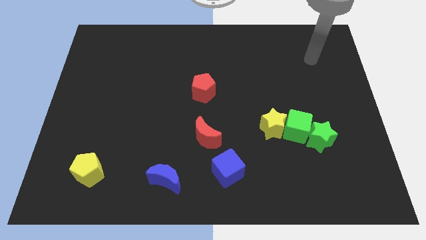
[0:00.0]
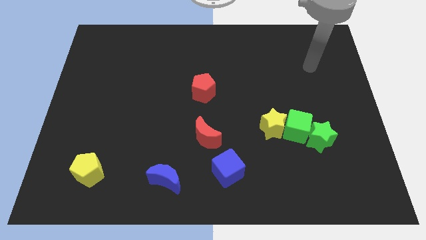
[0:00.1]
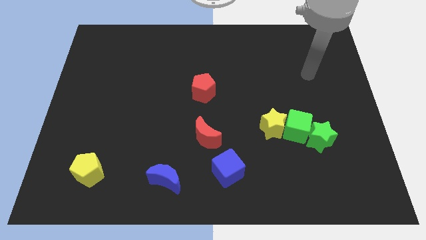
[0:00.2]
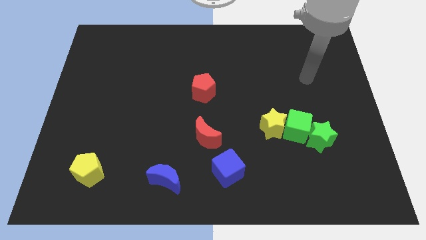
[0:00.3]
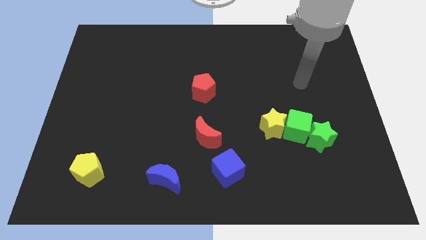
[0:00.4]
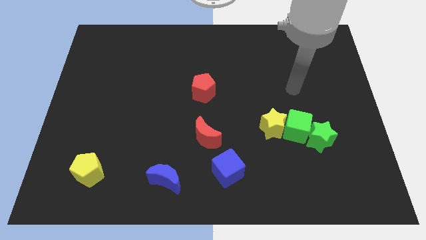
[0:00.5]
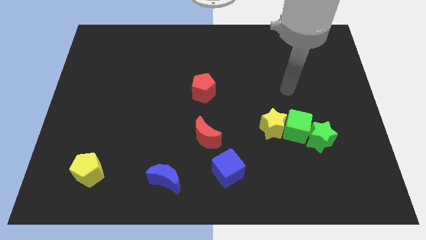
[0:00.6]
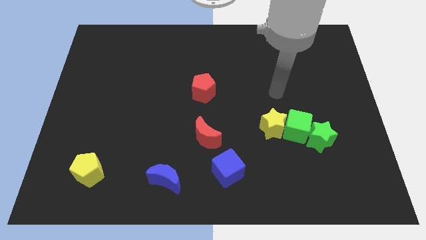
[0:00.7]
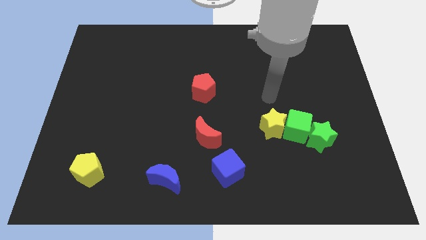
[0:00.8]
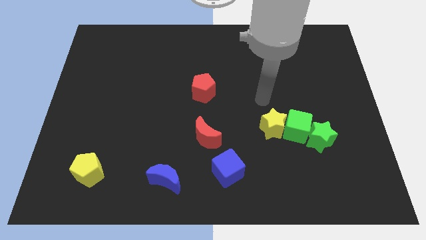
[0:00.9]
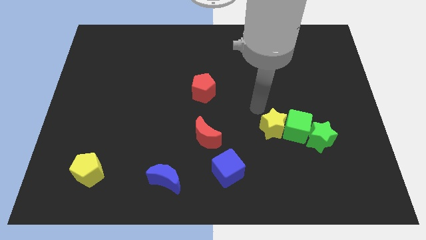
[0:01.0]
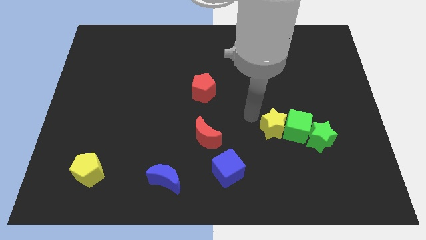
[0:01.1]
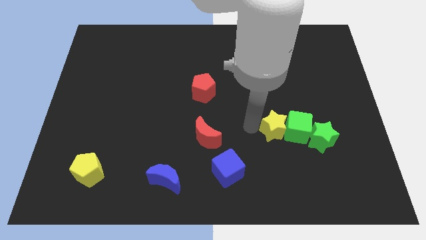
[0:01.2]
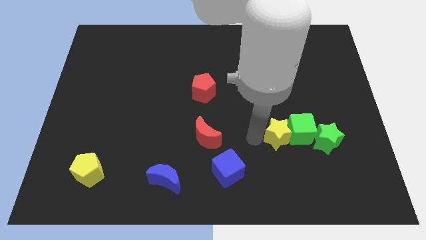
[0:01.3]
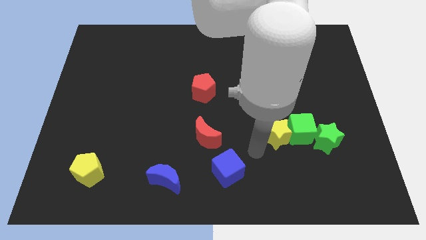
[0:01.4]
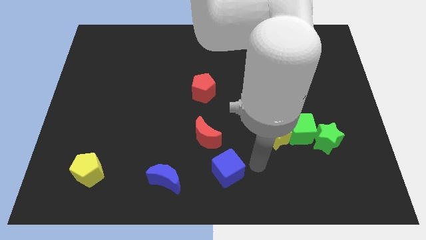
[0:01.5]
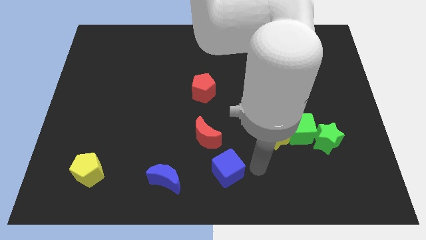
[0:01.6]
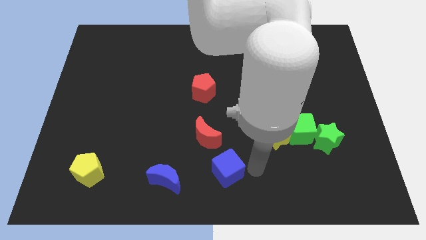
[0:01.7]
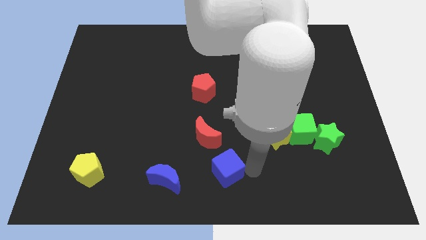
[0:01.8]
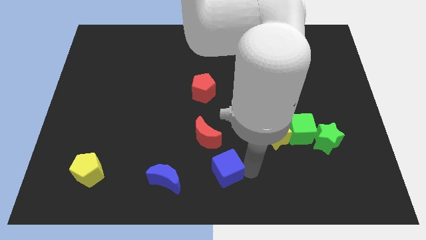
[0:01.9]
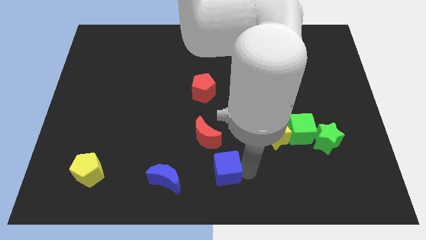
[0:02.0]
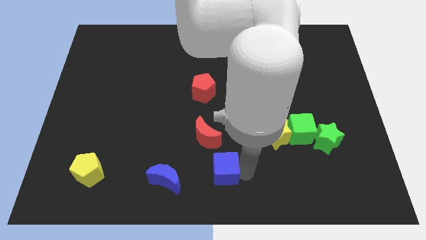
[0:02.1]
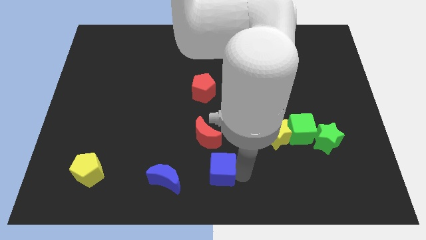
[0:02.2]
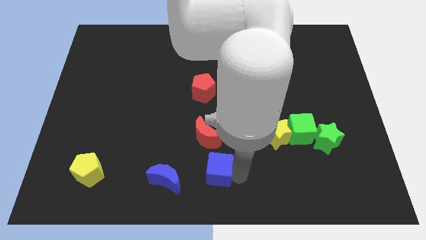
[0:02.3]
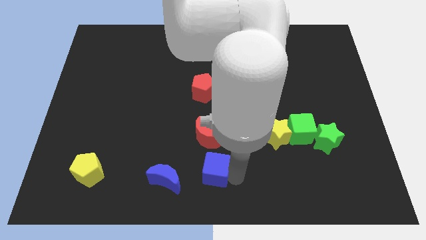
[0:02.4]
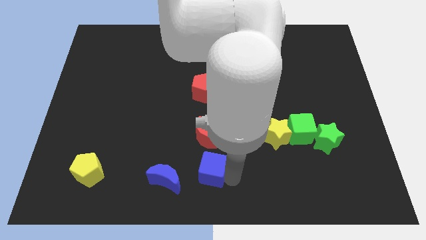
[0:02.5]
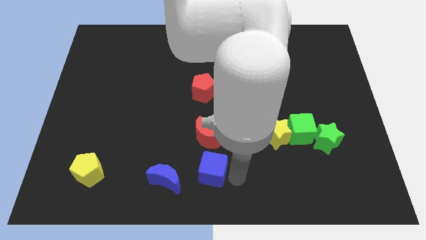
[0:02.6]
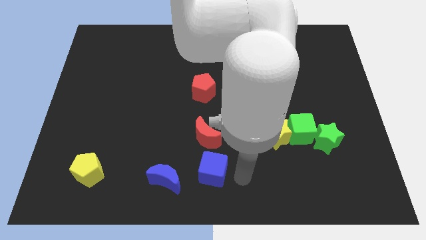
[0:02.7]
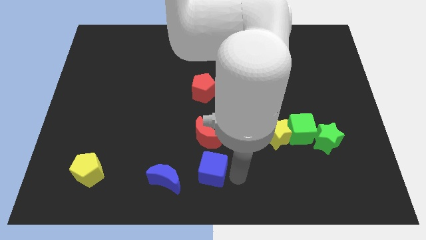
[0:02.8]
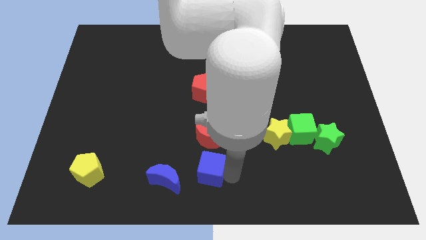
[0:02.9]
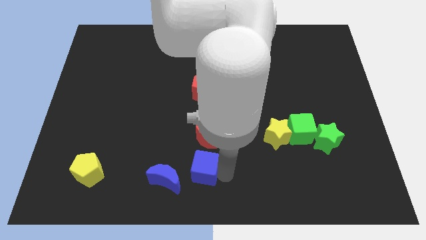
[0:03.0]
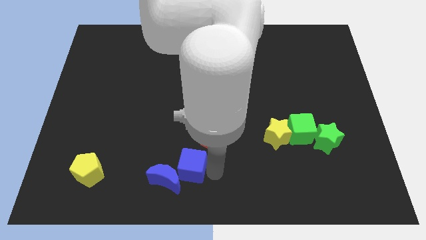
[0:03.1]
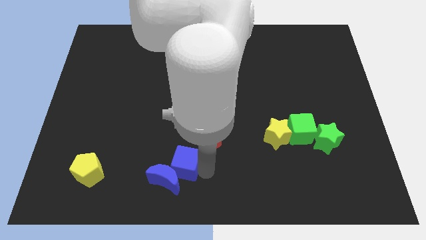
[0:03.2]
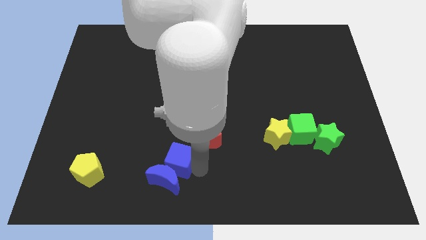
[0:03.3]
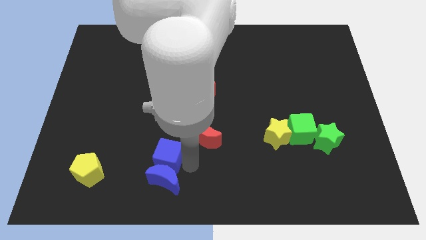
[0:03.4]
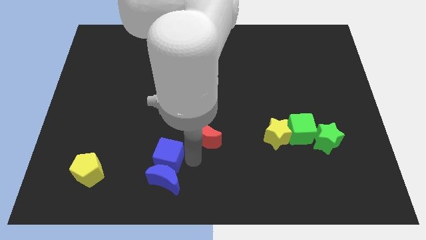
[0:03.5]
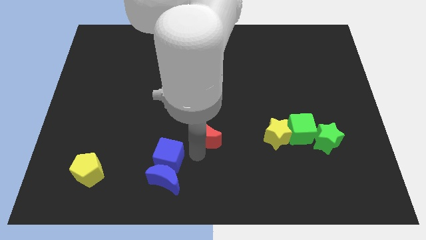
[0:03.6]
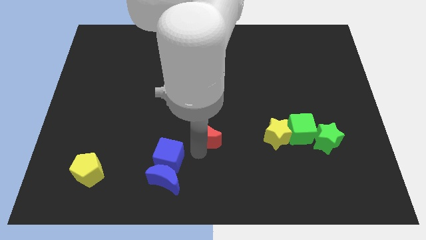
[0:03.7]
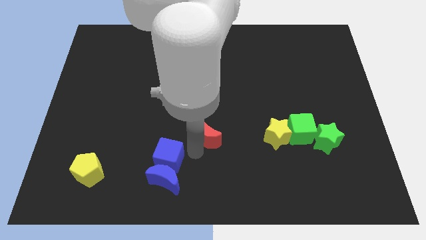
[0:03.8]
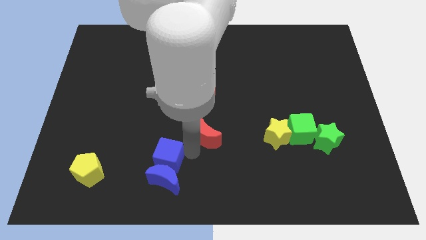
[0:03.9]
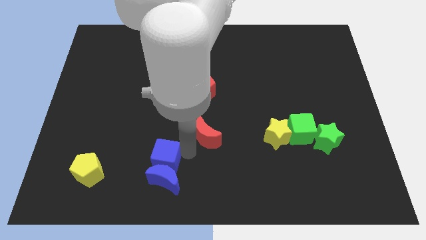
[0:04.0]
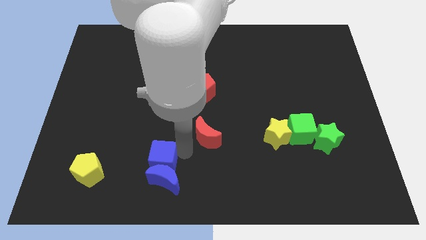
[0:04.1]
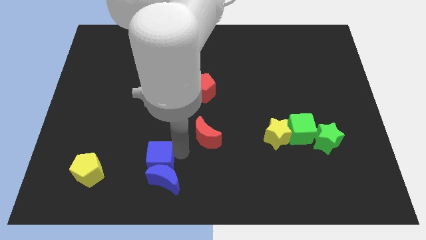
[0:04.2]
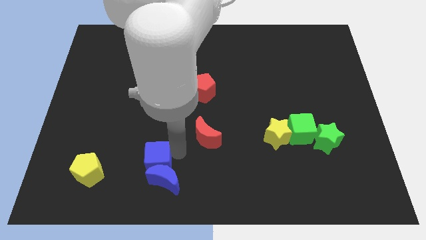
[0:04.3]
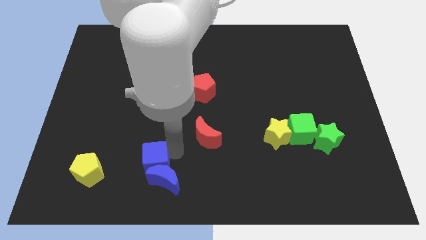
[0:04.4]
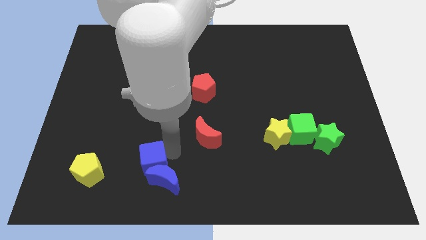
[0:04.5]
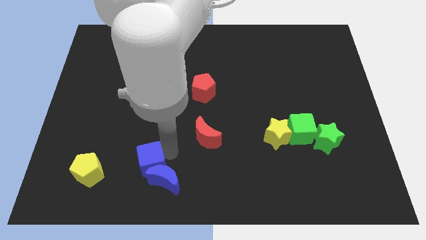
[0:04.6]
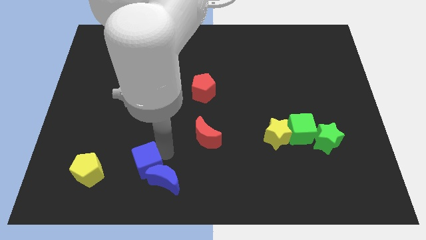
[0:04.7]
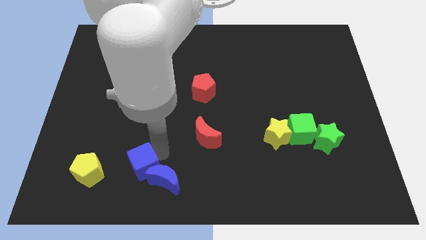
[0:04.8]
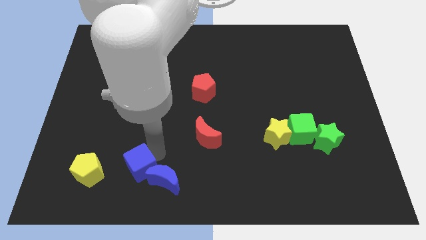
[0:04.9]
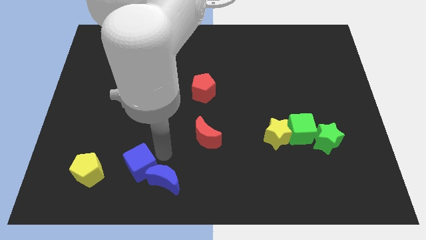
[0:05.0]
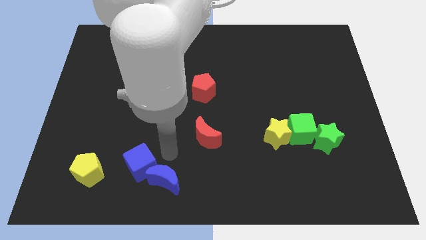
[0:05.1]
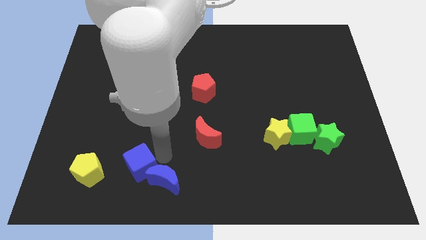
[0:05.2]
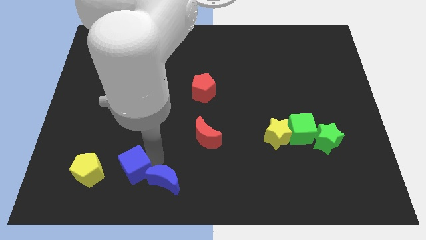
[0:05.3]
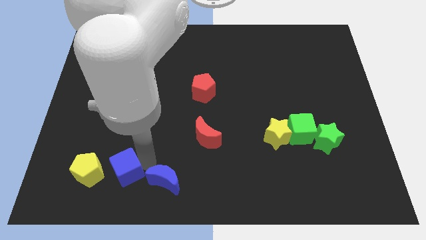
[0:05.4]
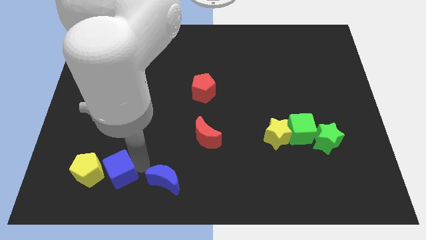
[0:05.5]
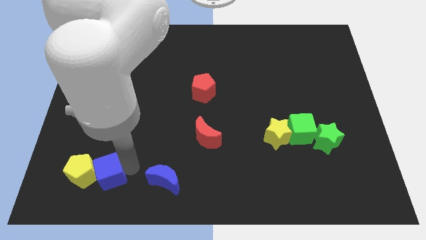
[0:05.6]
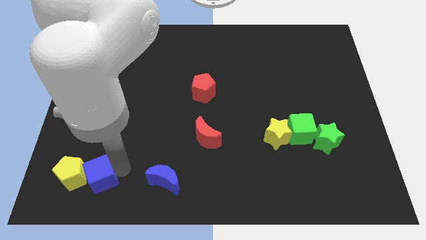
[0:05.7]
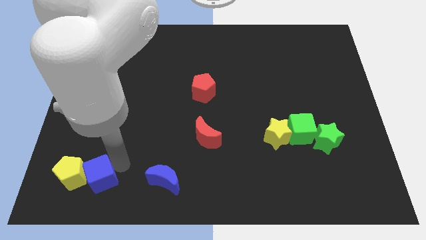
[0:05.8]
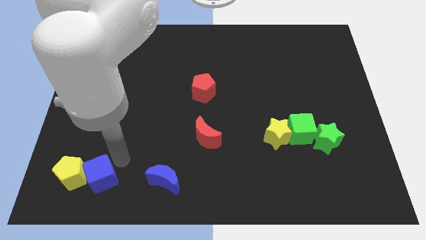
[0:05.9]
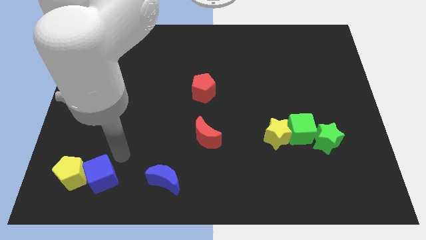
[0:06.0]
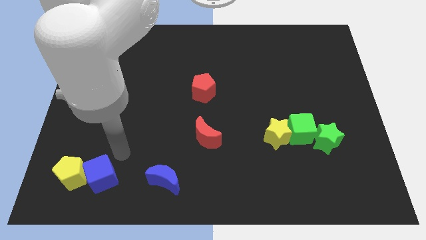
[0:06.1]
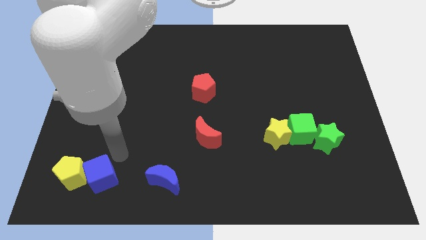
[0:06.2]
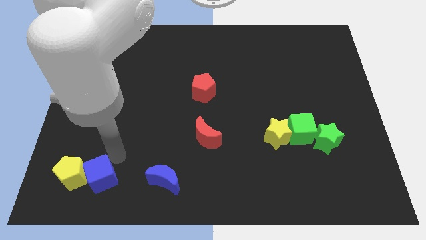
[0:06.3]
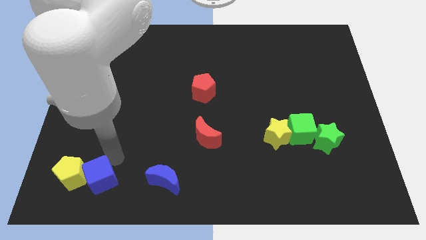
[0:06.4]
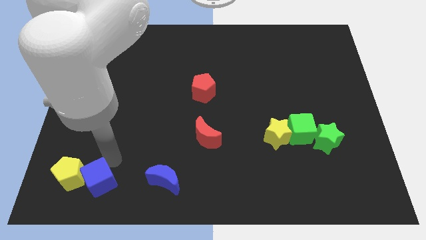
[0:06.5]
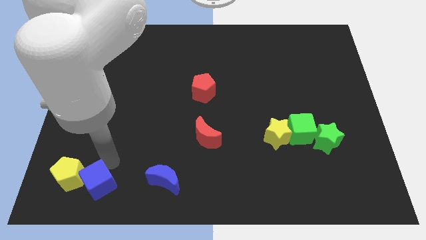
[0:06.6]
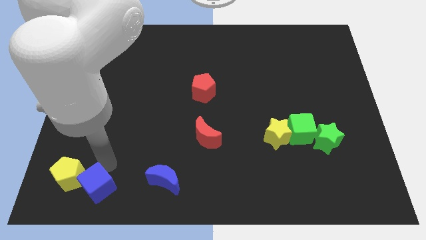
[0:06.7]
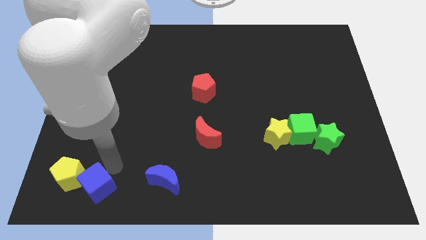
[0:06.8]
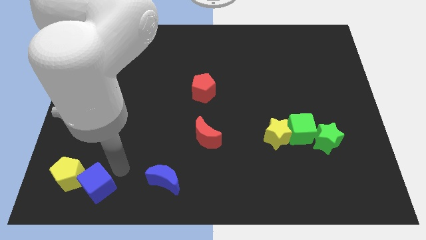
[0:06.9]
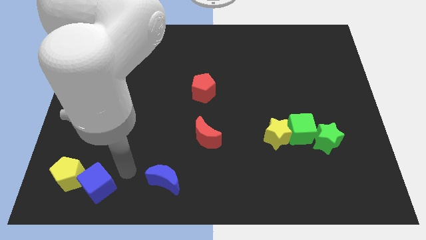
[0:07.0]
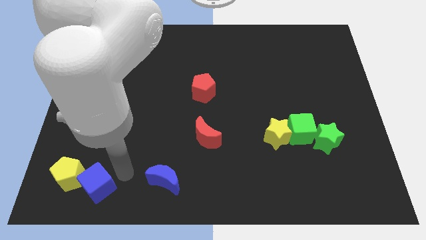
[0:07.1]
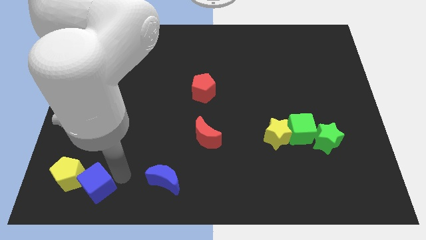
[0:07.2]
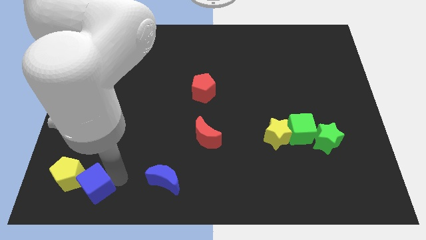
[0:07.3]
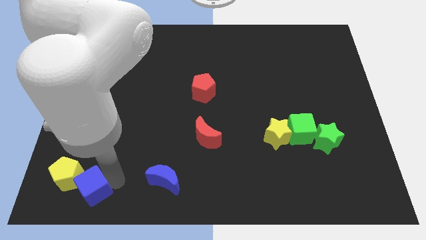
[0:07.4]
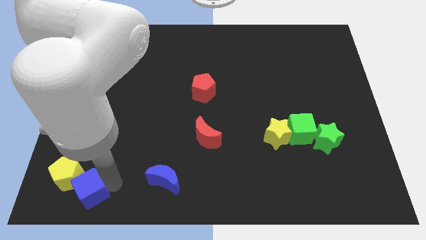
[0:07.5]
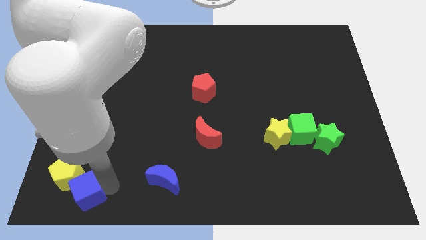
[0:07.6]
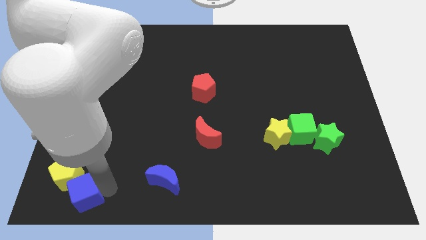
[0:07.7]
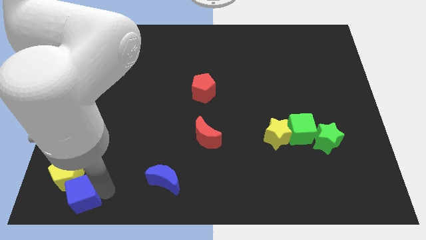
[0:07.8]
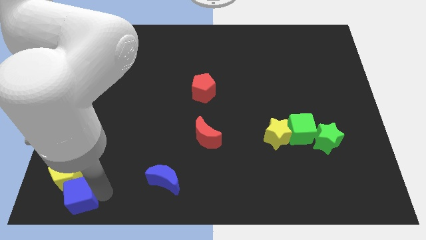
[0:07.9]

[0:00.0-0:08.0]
move the blue cube to the bottom left of the board
